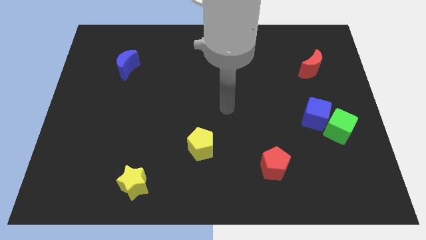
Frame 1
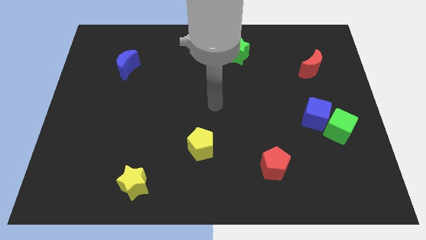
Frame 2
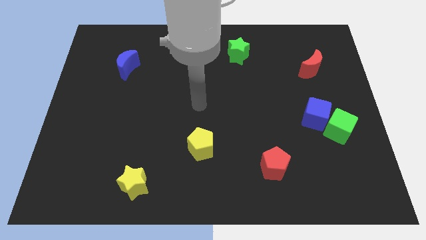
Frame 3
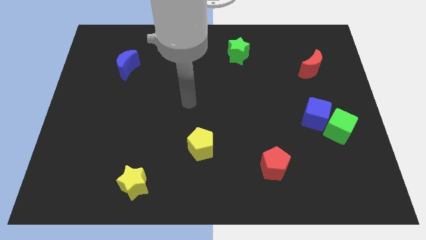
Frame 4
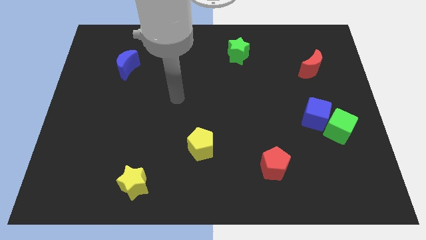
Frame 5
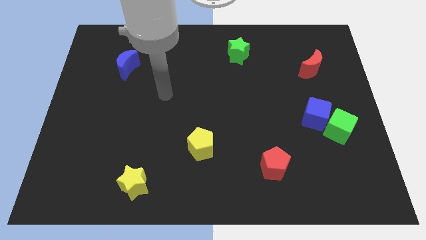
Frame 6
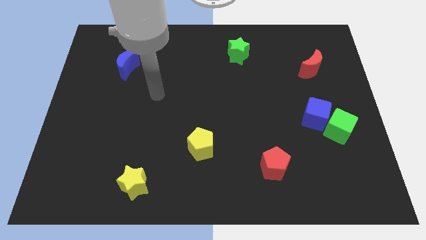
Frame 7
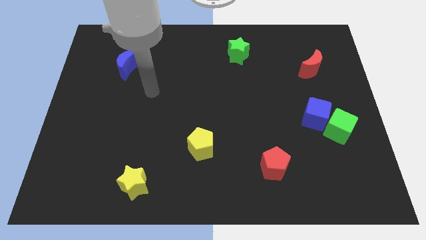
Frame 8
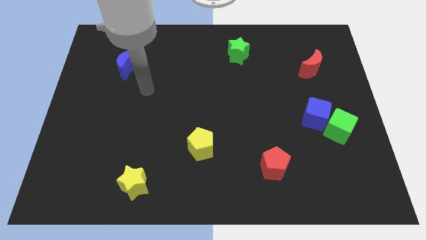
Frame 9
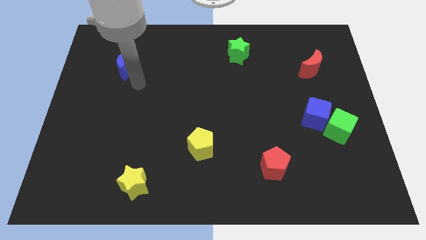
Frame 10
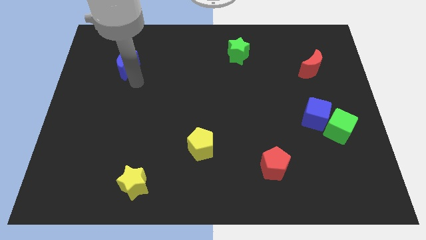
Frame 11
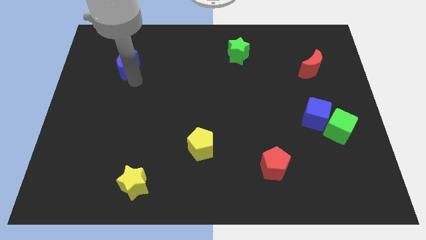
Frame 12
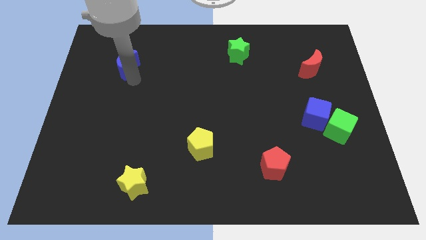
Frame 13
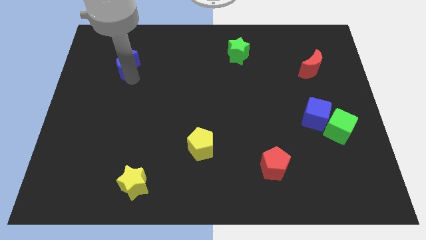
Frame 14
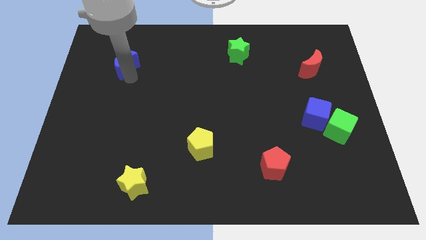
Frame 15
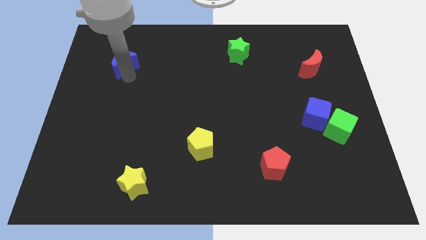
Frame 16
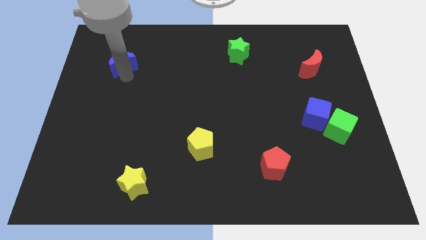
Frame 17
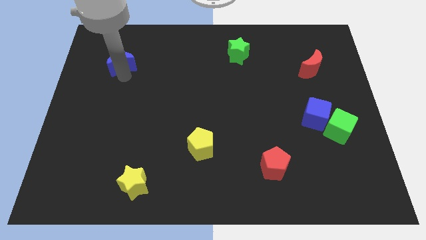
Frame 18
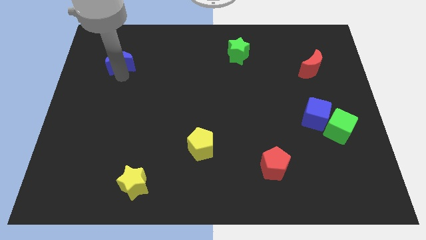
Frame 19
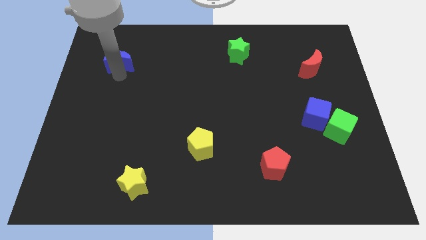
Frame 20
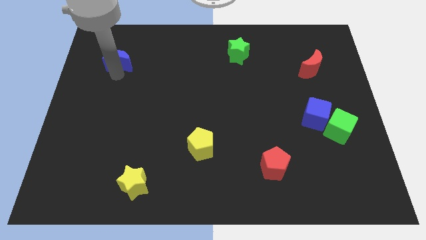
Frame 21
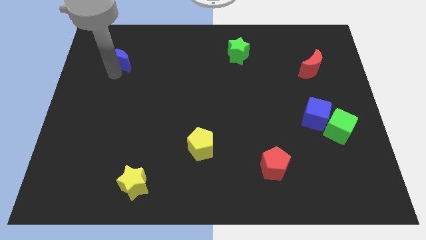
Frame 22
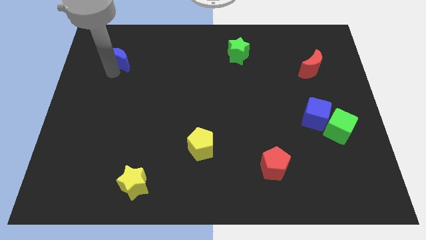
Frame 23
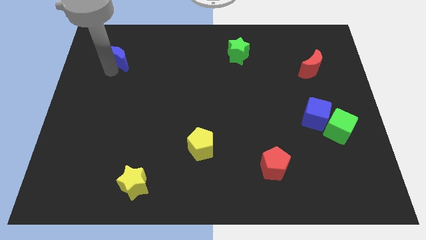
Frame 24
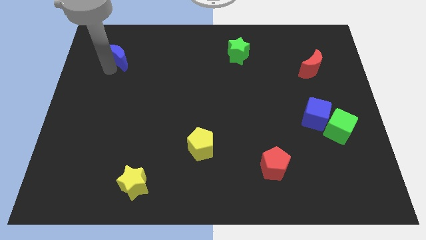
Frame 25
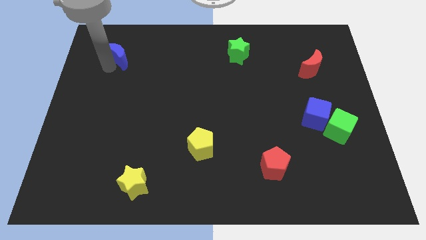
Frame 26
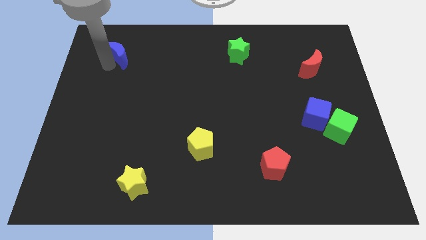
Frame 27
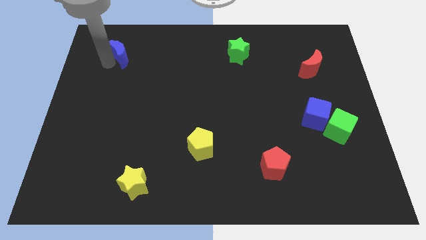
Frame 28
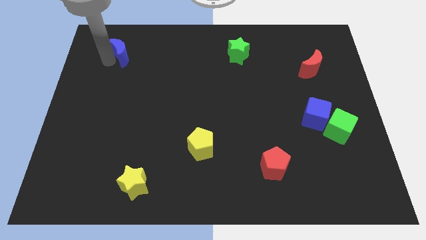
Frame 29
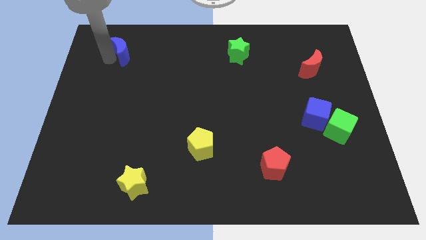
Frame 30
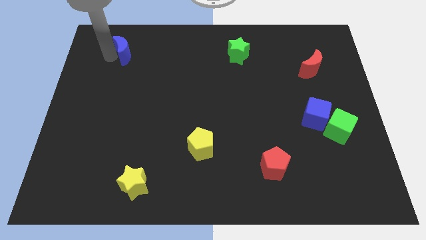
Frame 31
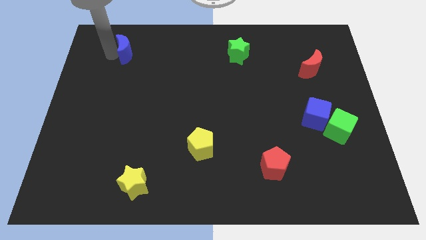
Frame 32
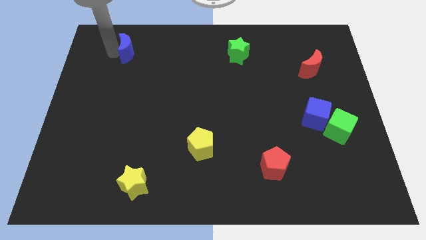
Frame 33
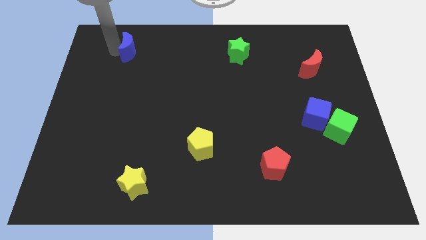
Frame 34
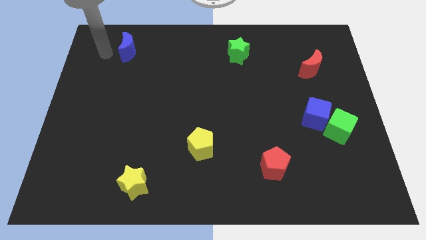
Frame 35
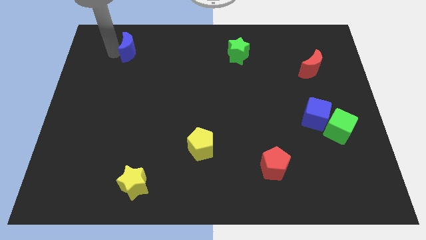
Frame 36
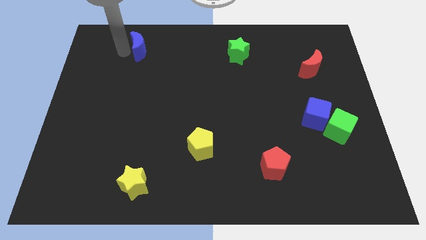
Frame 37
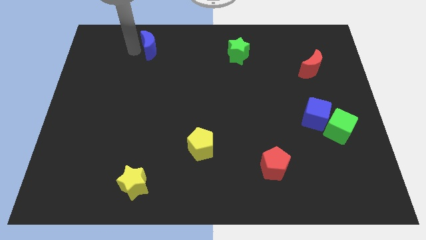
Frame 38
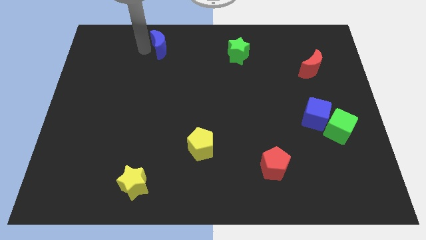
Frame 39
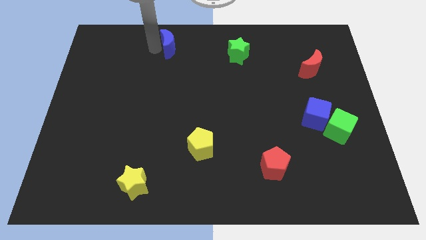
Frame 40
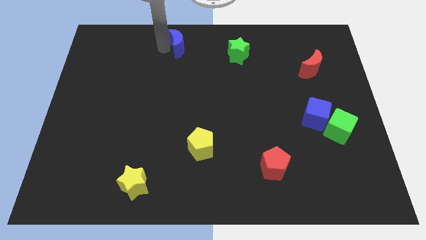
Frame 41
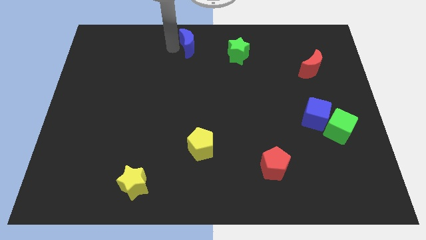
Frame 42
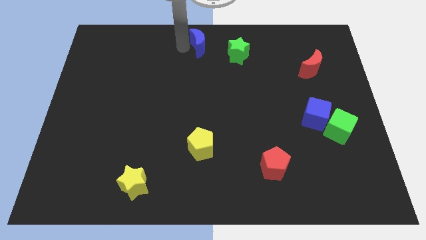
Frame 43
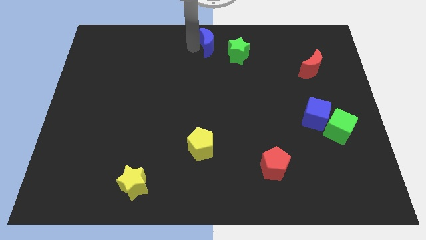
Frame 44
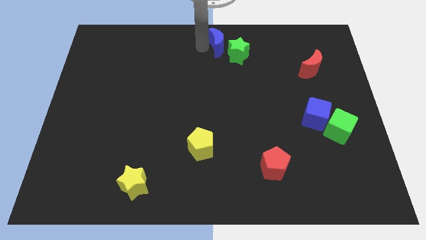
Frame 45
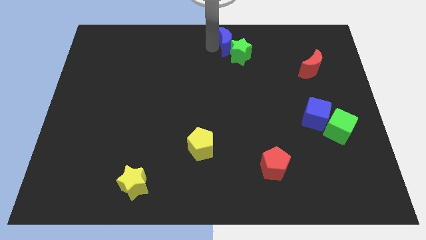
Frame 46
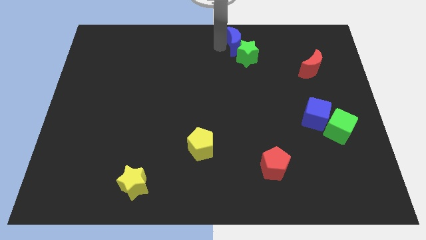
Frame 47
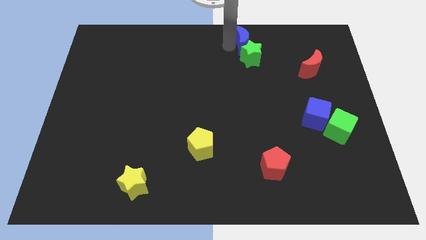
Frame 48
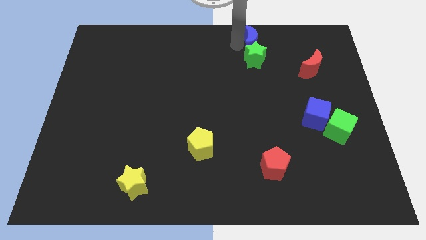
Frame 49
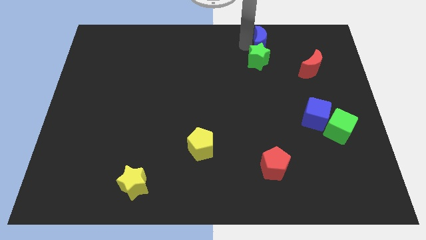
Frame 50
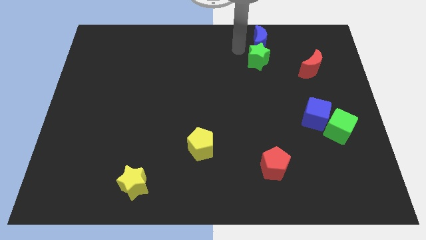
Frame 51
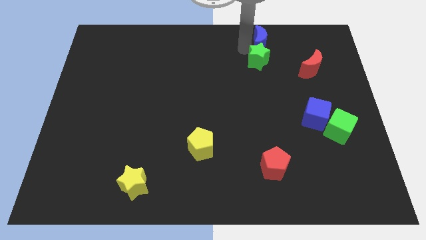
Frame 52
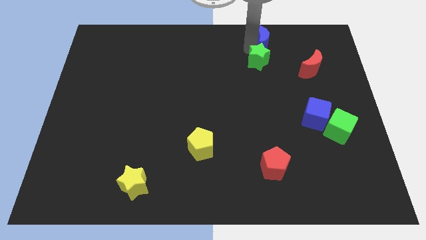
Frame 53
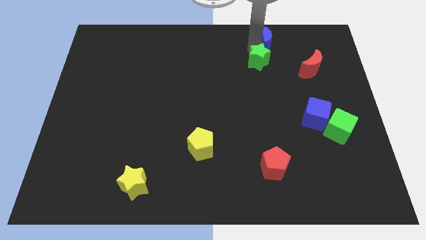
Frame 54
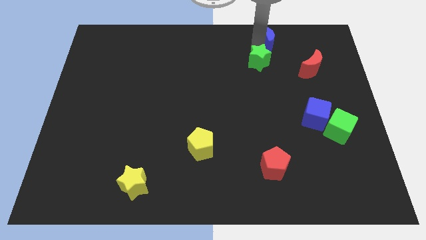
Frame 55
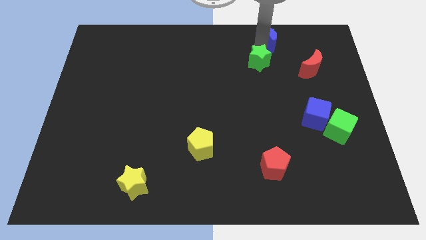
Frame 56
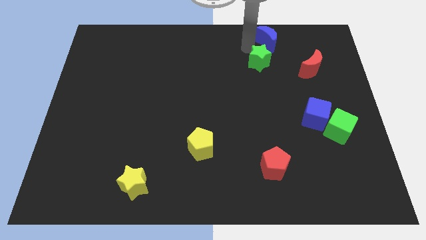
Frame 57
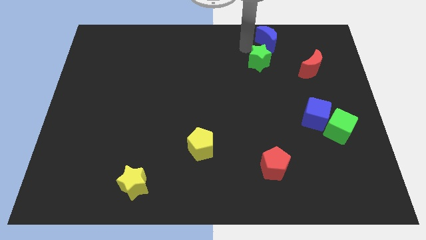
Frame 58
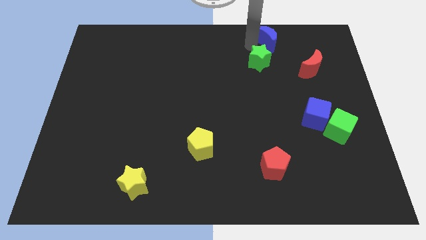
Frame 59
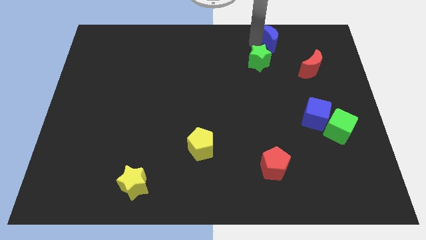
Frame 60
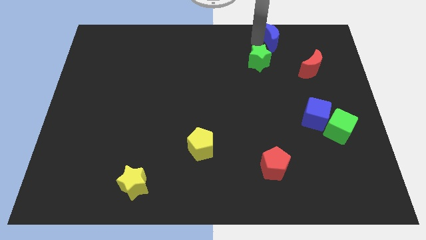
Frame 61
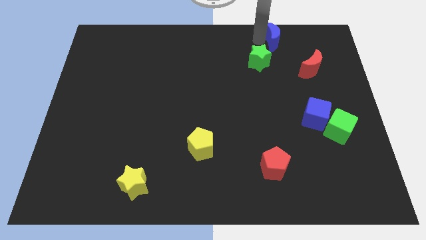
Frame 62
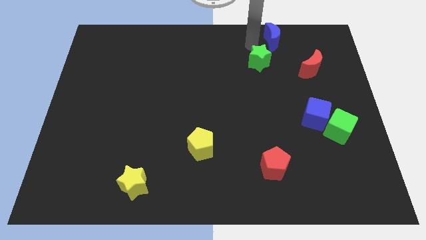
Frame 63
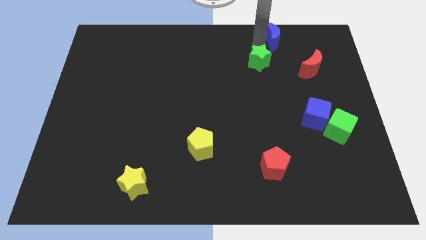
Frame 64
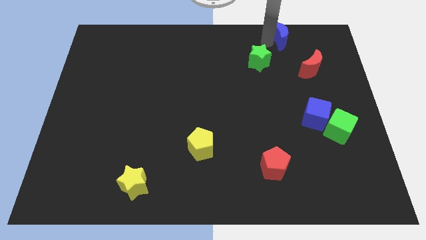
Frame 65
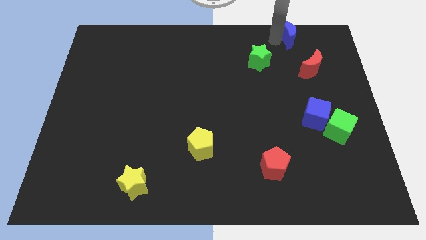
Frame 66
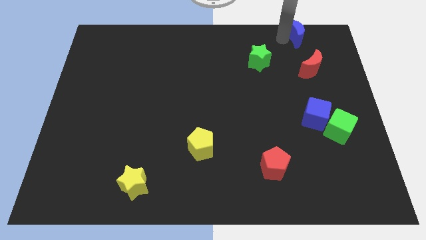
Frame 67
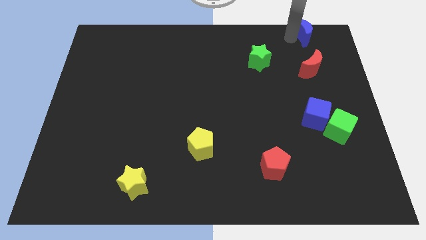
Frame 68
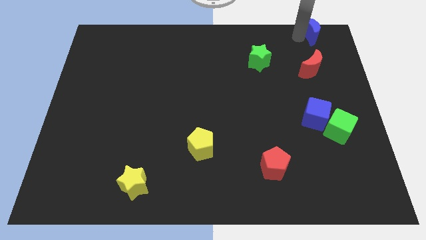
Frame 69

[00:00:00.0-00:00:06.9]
push the blue moon to the top right
